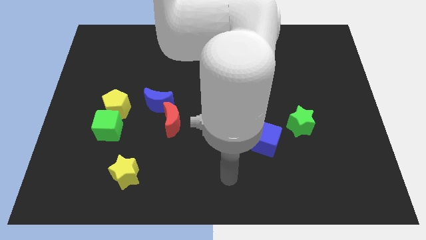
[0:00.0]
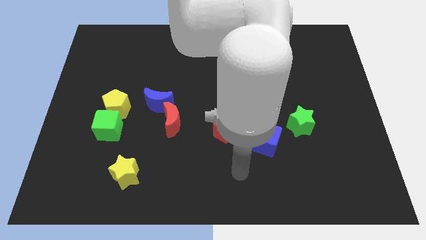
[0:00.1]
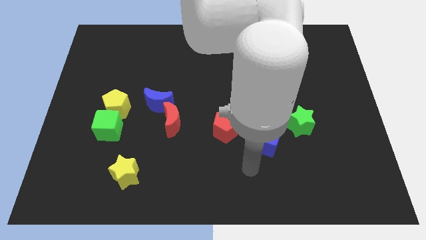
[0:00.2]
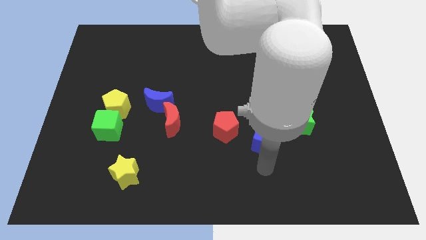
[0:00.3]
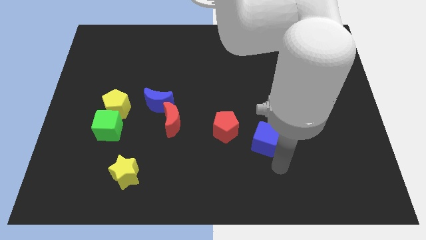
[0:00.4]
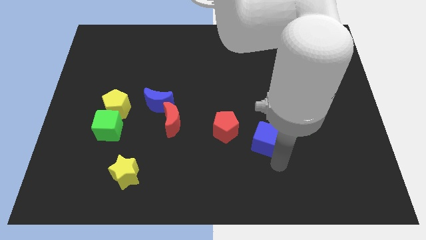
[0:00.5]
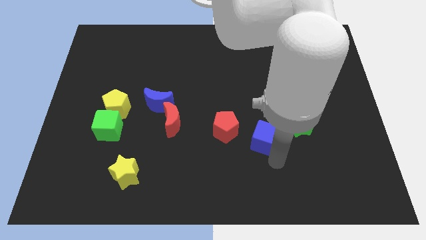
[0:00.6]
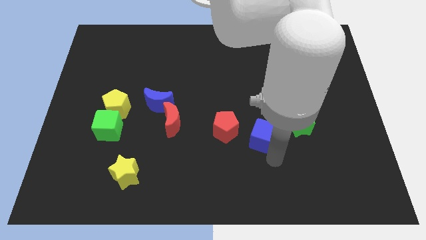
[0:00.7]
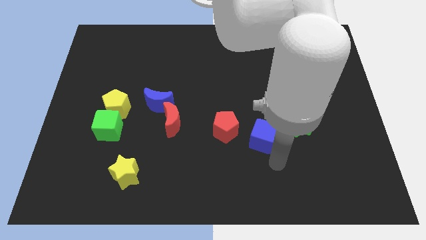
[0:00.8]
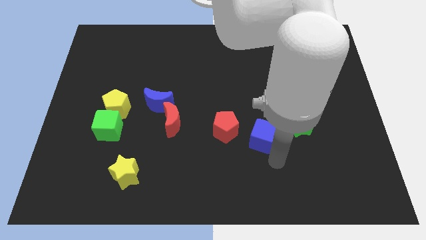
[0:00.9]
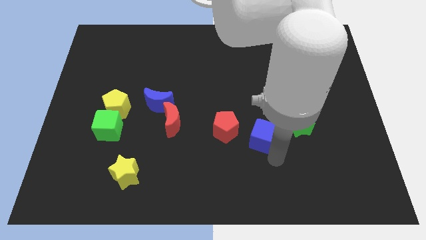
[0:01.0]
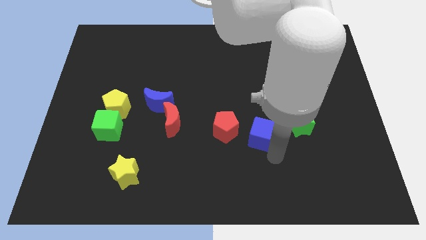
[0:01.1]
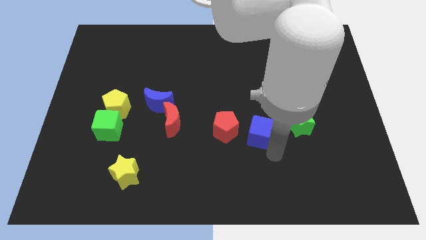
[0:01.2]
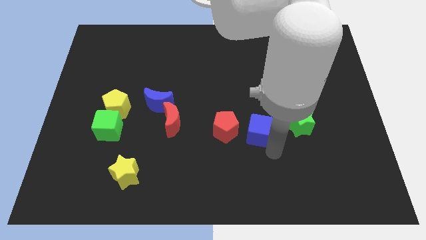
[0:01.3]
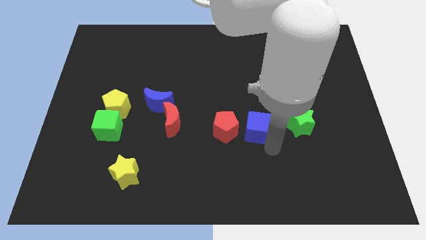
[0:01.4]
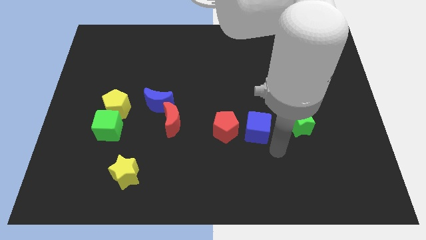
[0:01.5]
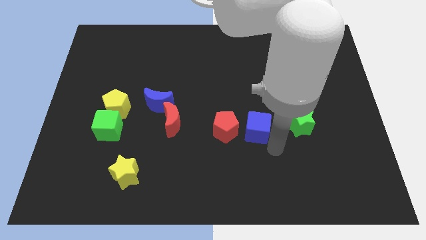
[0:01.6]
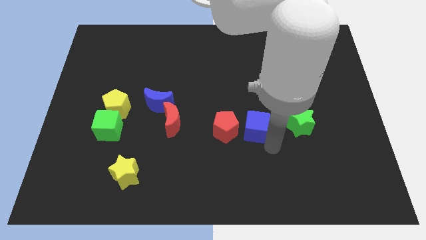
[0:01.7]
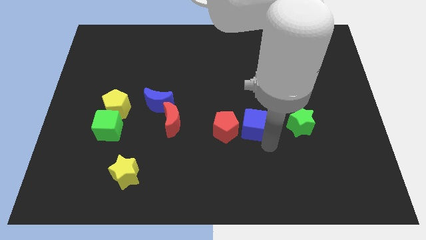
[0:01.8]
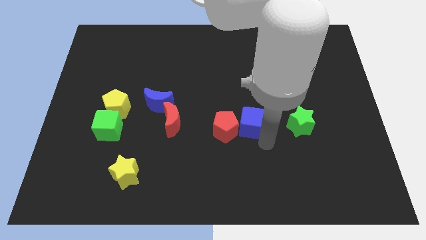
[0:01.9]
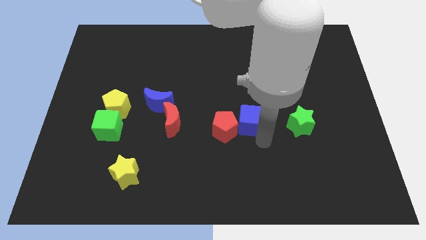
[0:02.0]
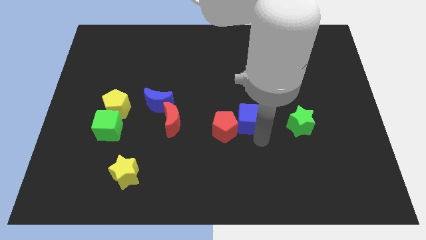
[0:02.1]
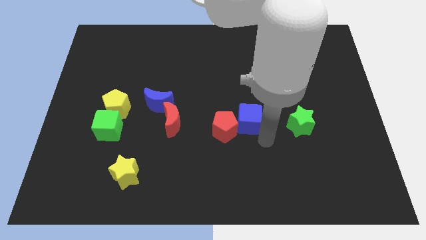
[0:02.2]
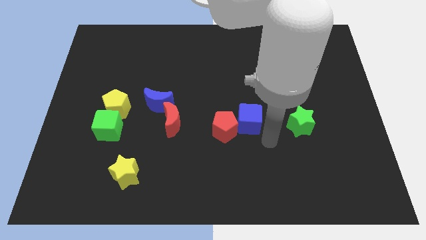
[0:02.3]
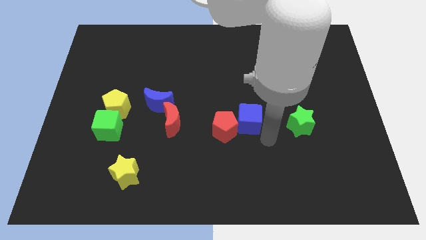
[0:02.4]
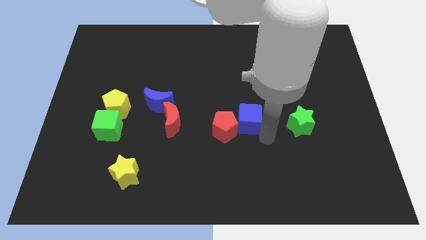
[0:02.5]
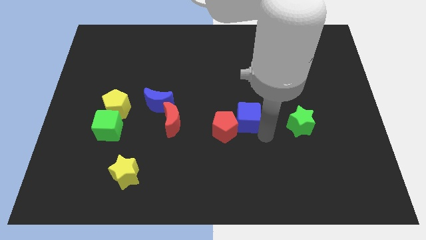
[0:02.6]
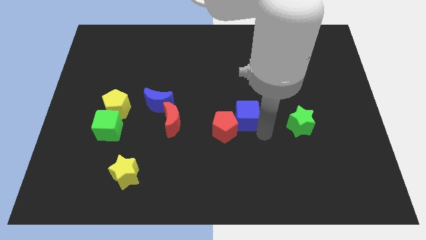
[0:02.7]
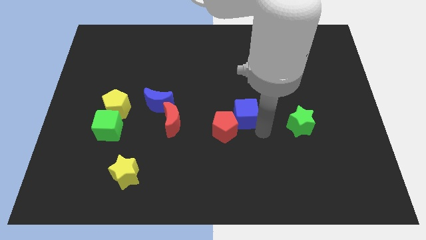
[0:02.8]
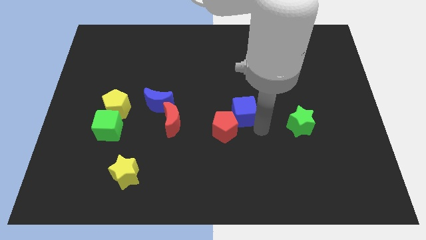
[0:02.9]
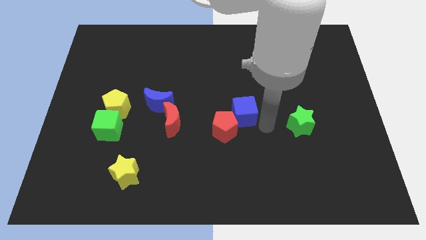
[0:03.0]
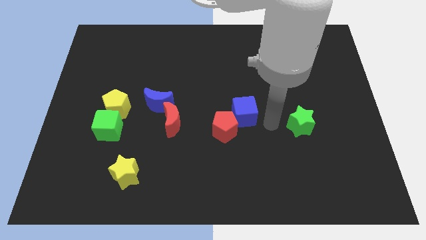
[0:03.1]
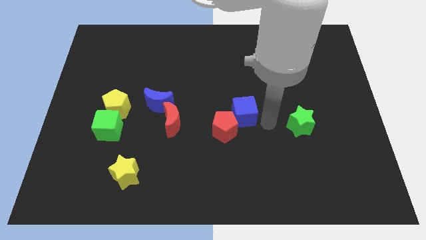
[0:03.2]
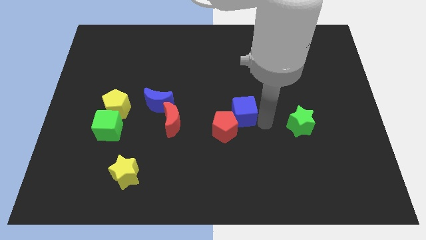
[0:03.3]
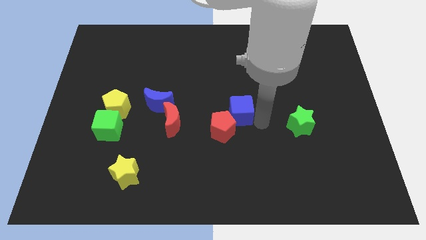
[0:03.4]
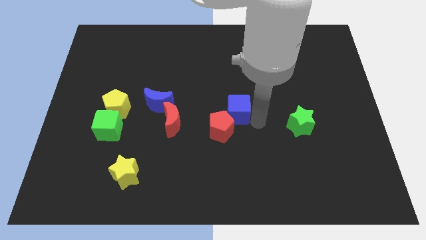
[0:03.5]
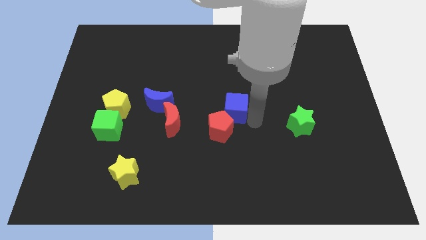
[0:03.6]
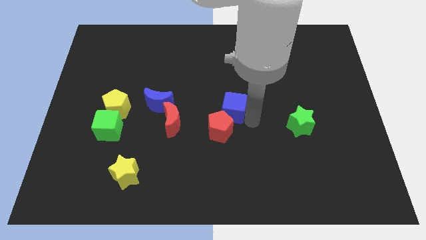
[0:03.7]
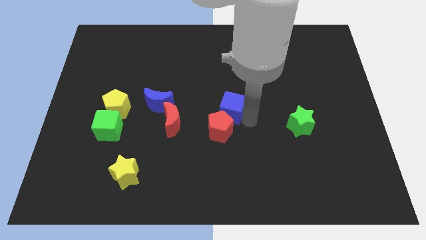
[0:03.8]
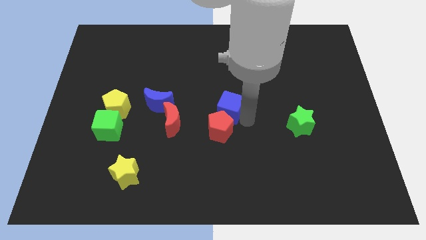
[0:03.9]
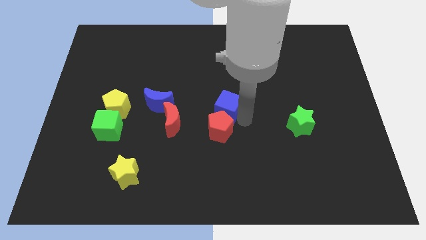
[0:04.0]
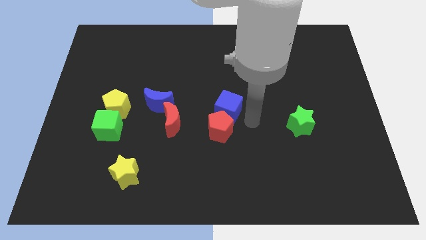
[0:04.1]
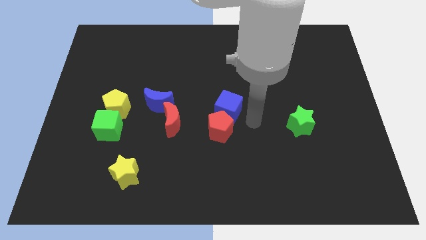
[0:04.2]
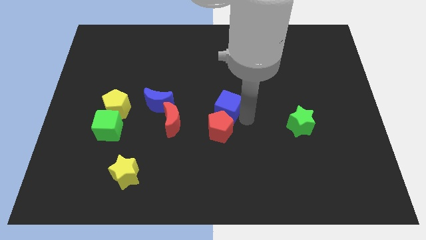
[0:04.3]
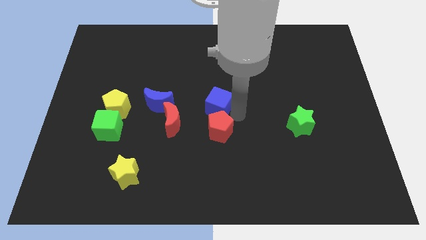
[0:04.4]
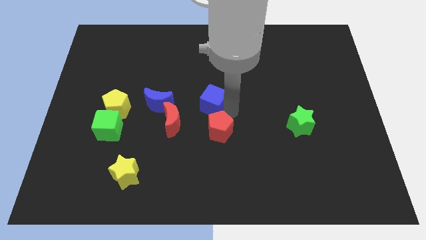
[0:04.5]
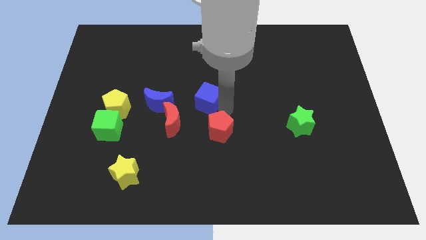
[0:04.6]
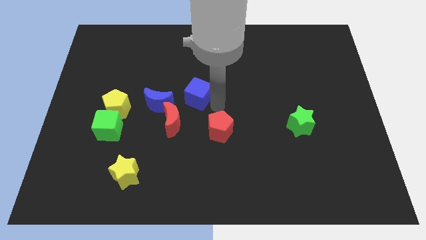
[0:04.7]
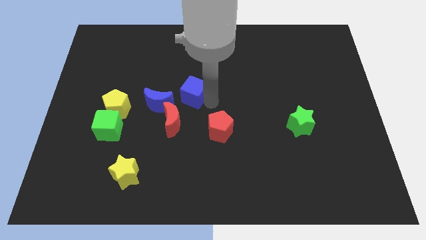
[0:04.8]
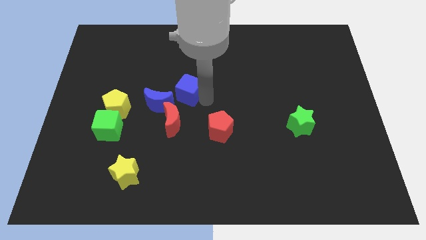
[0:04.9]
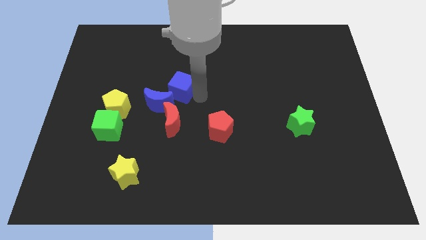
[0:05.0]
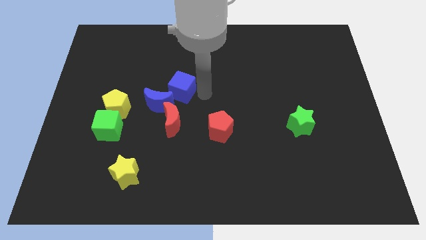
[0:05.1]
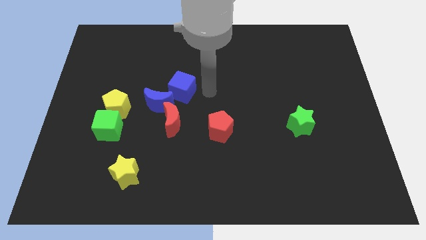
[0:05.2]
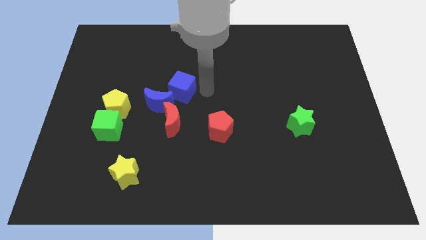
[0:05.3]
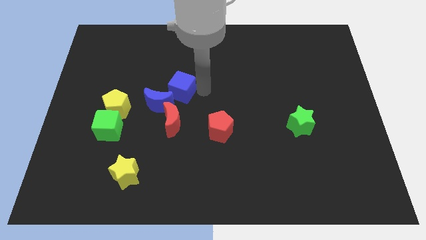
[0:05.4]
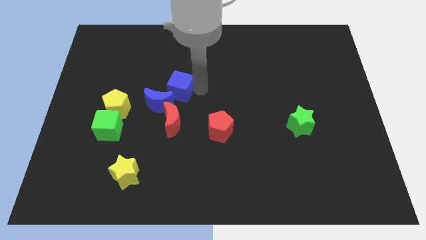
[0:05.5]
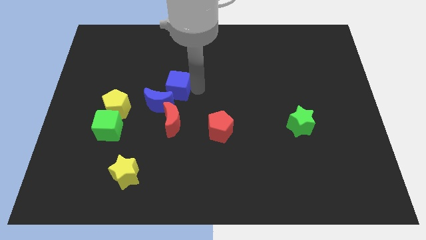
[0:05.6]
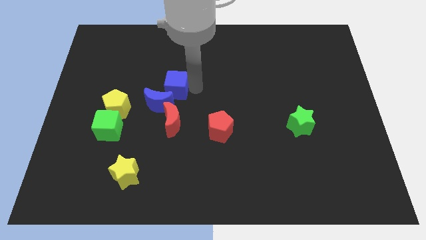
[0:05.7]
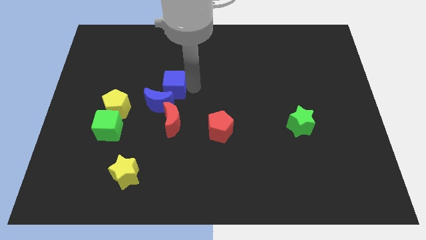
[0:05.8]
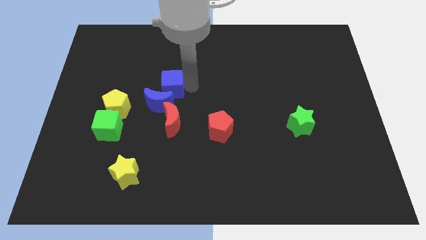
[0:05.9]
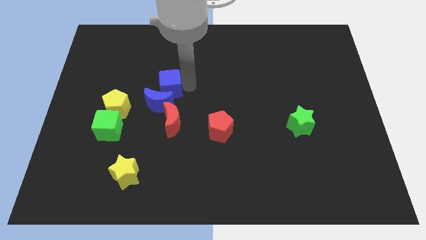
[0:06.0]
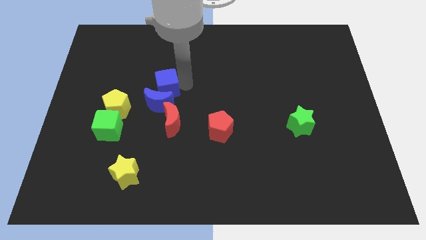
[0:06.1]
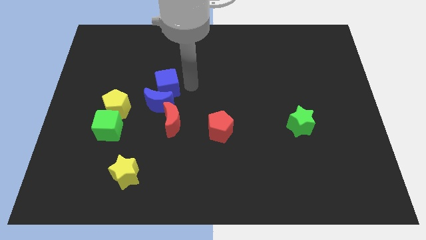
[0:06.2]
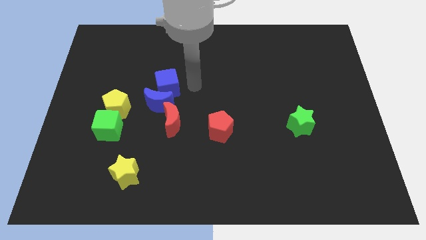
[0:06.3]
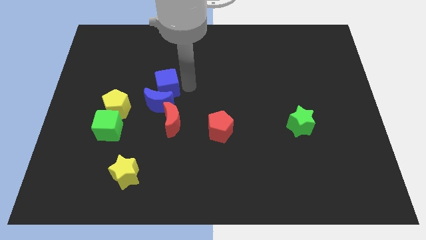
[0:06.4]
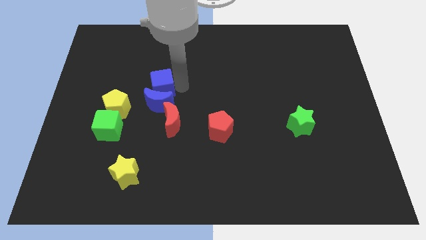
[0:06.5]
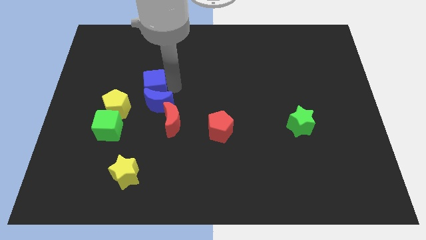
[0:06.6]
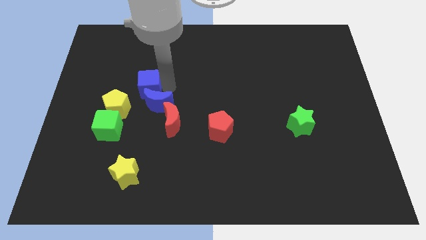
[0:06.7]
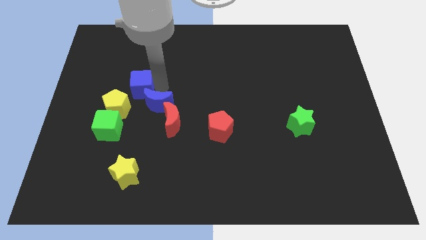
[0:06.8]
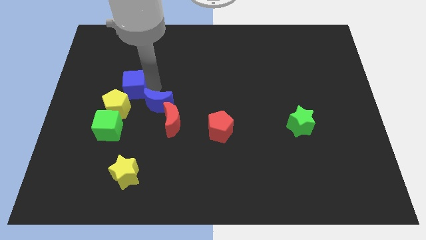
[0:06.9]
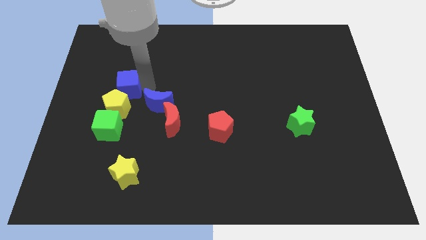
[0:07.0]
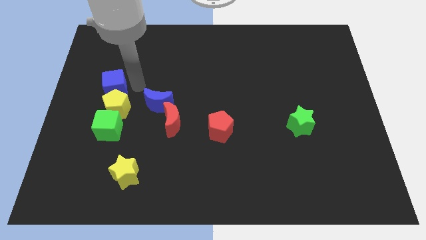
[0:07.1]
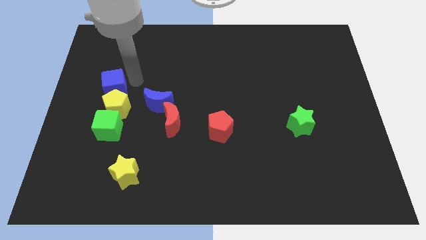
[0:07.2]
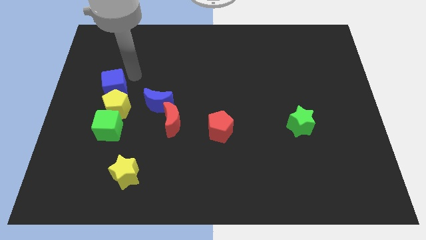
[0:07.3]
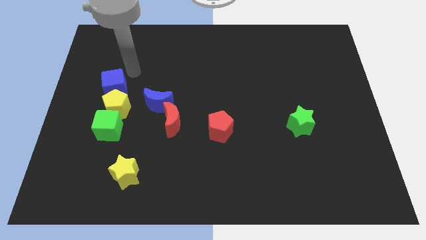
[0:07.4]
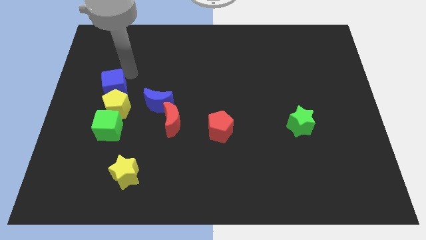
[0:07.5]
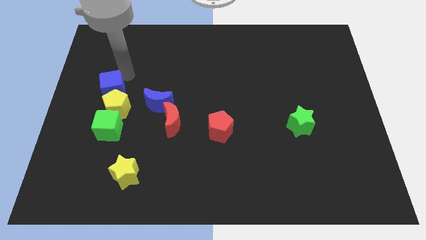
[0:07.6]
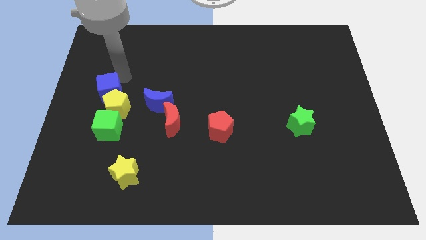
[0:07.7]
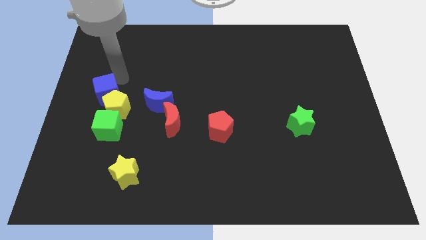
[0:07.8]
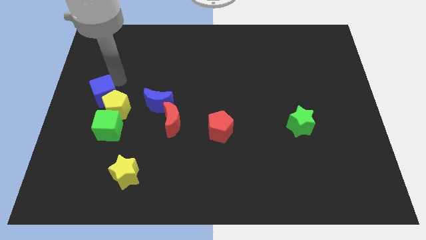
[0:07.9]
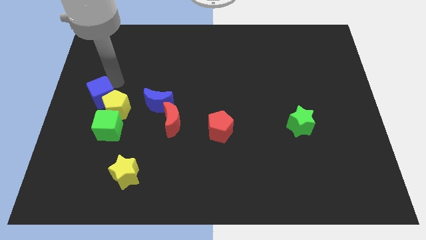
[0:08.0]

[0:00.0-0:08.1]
slide the blue cube to the top left side of the green cube
